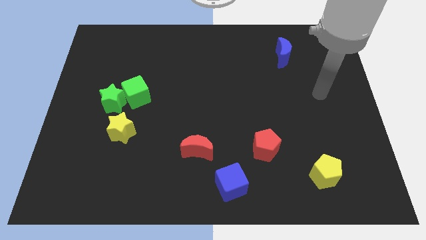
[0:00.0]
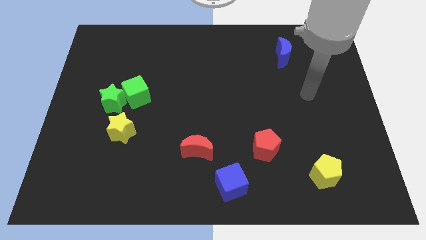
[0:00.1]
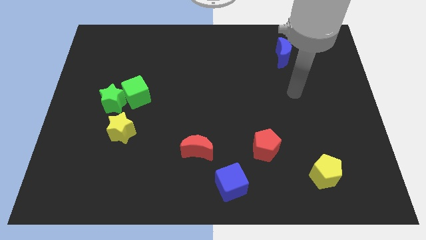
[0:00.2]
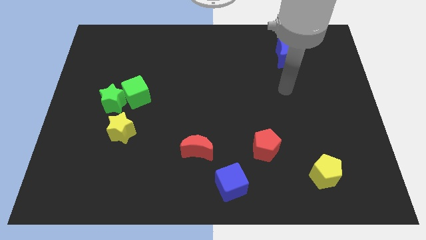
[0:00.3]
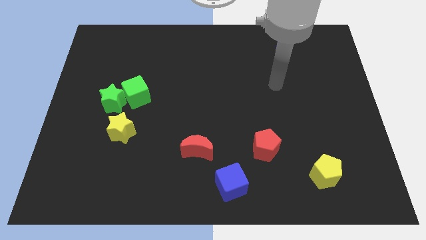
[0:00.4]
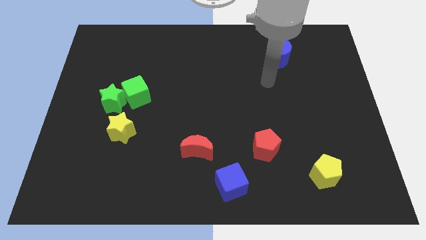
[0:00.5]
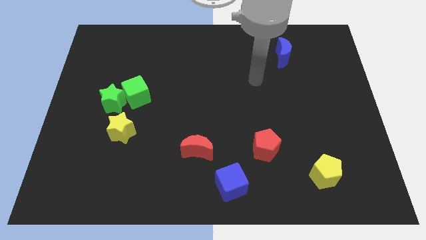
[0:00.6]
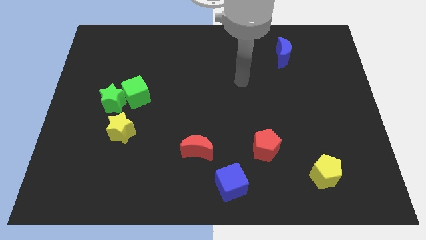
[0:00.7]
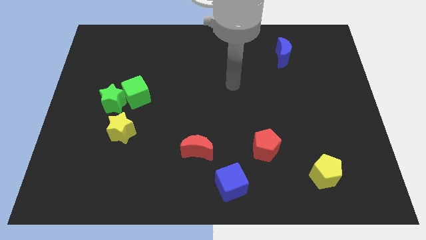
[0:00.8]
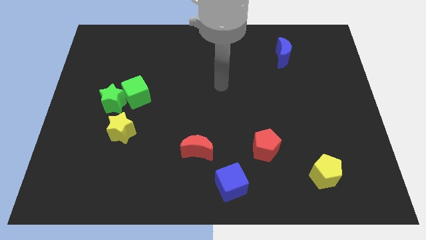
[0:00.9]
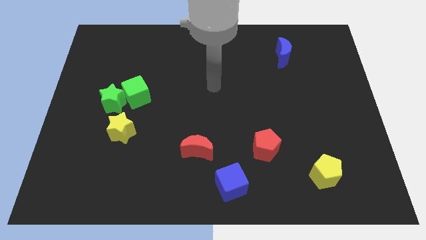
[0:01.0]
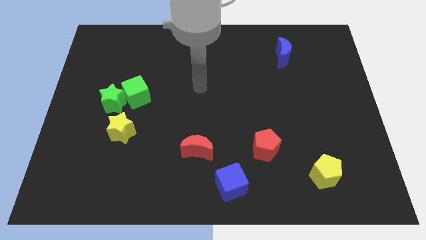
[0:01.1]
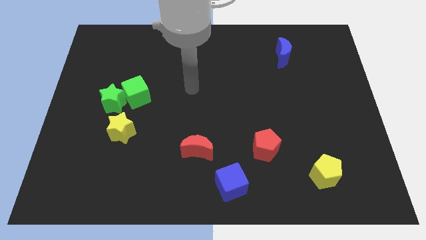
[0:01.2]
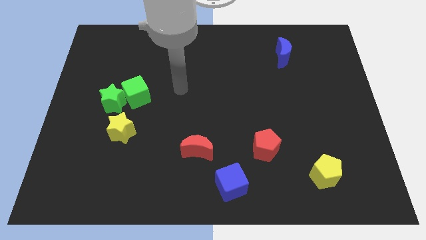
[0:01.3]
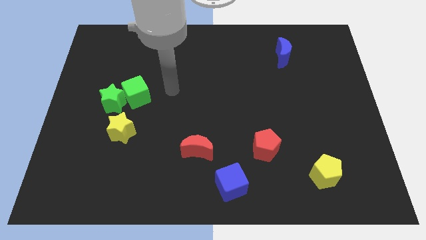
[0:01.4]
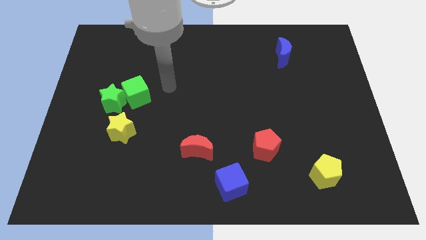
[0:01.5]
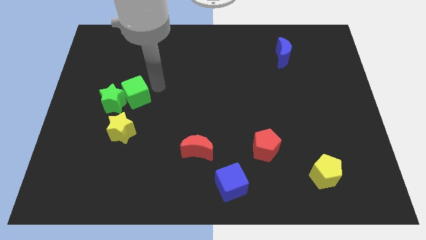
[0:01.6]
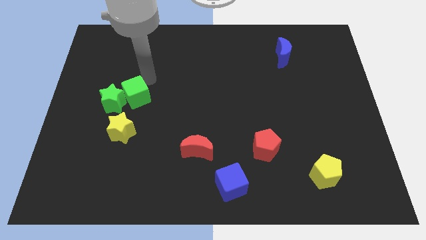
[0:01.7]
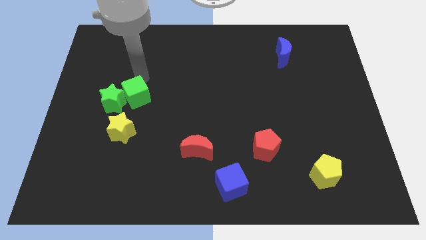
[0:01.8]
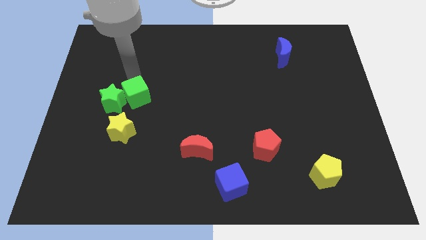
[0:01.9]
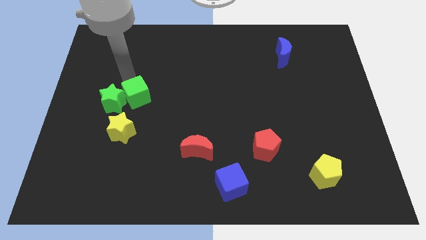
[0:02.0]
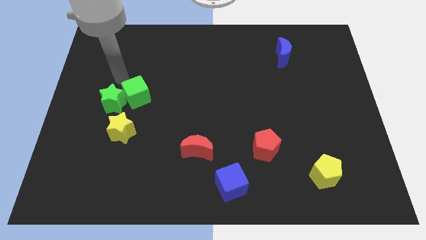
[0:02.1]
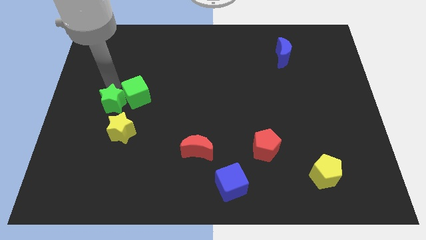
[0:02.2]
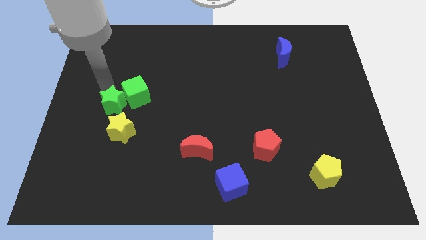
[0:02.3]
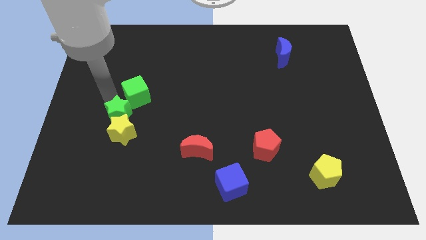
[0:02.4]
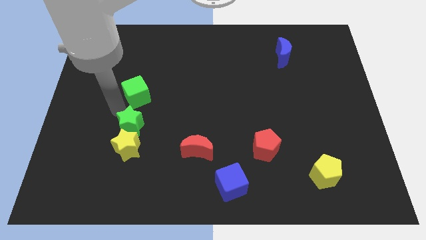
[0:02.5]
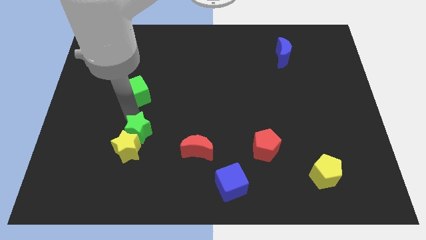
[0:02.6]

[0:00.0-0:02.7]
move the green cube away from the green star

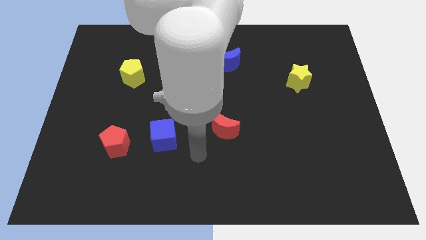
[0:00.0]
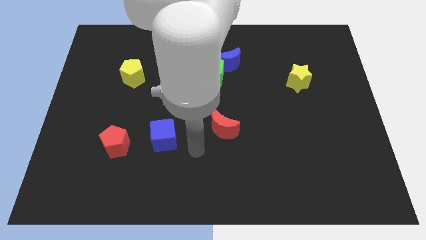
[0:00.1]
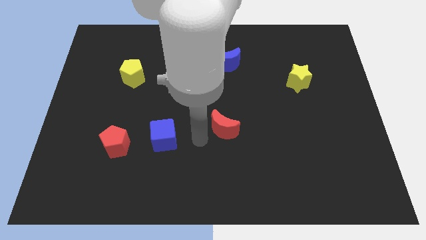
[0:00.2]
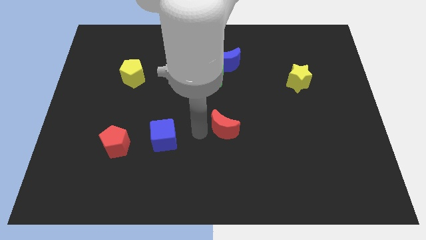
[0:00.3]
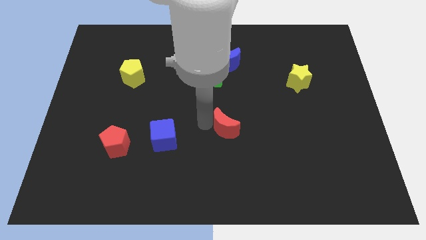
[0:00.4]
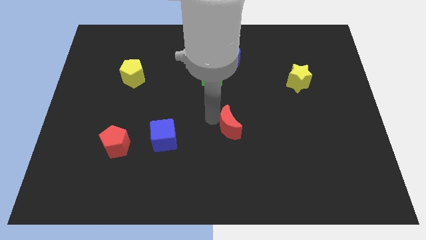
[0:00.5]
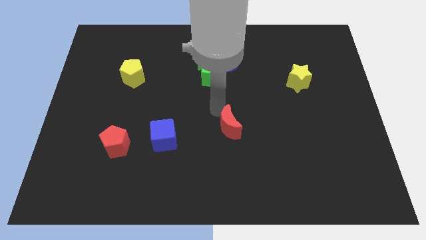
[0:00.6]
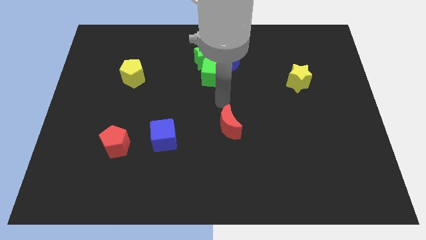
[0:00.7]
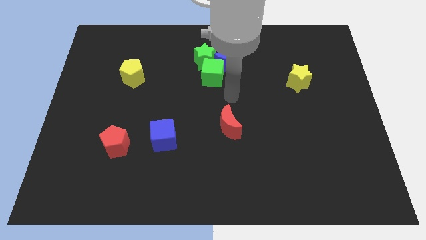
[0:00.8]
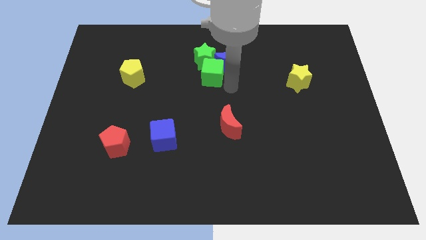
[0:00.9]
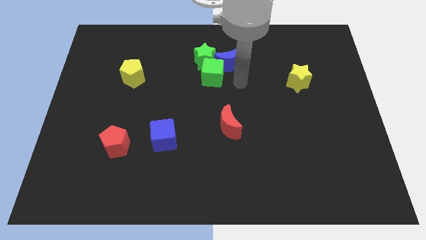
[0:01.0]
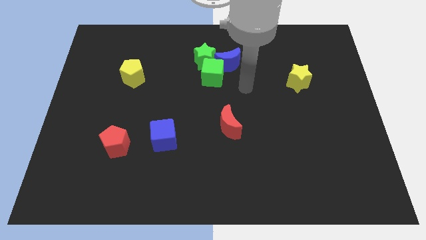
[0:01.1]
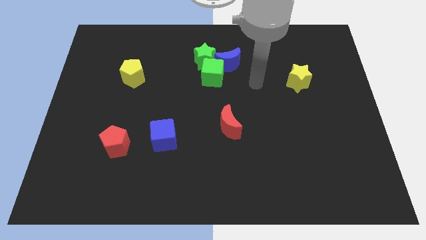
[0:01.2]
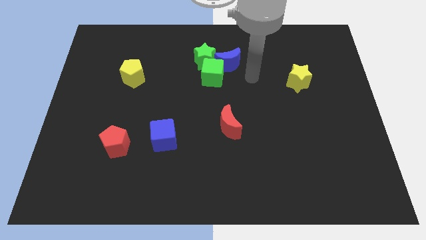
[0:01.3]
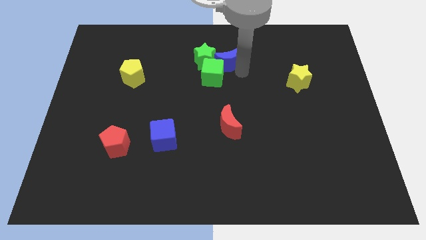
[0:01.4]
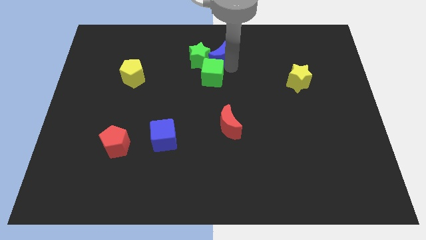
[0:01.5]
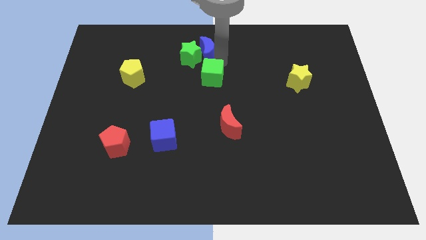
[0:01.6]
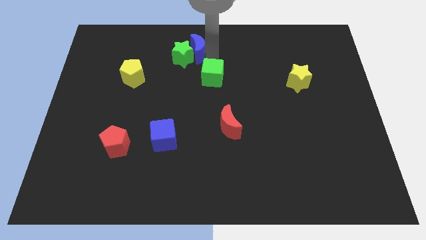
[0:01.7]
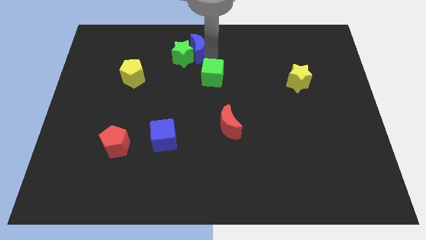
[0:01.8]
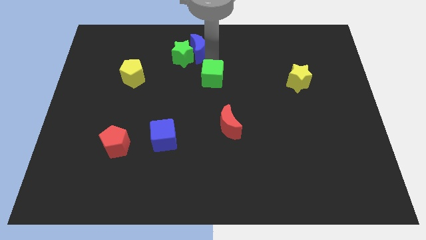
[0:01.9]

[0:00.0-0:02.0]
pull the green cube apart from the green star and blue moon

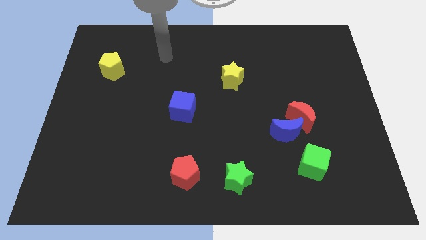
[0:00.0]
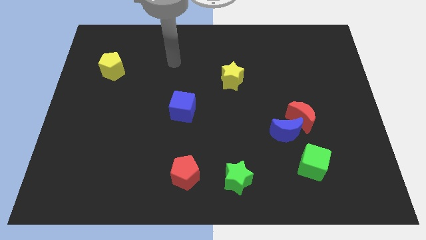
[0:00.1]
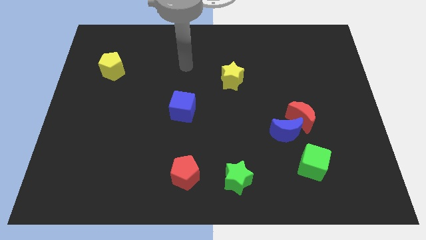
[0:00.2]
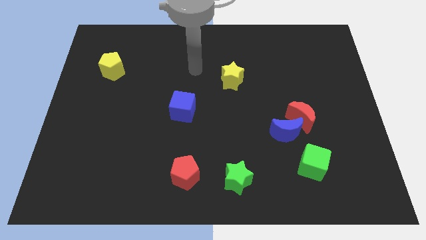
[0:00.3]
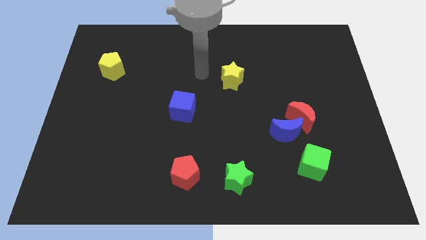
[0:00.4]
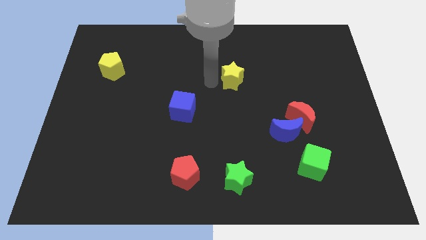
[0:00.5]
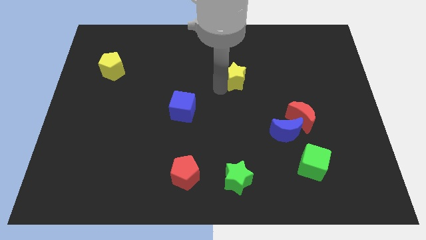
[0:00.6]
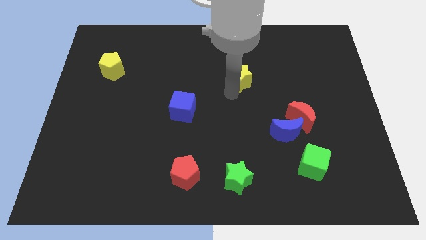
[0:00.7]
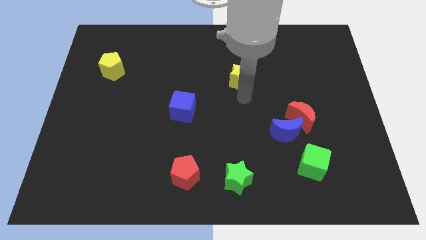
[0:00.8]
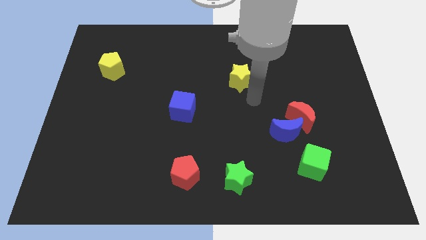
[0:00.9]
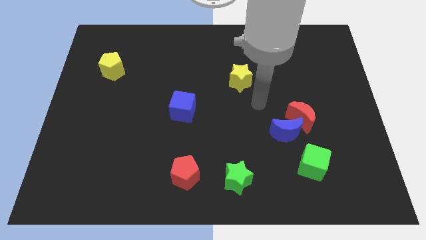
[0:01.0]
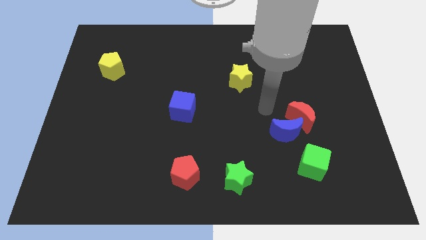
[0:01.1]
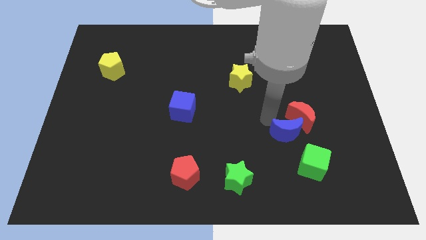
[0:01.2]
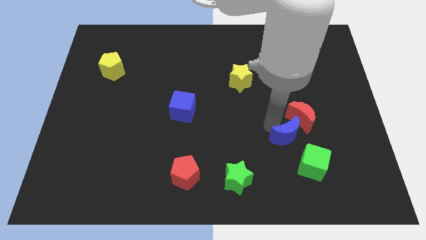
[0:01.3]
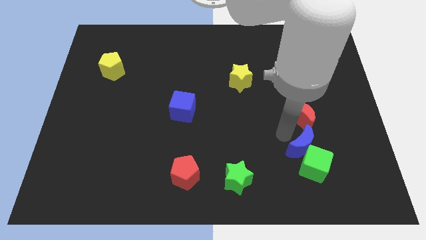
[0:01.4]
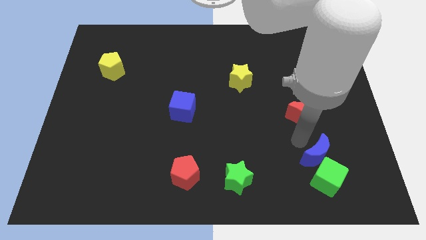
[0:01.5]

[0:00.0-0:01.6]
move the red moon away from the blue moon

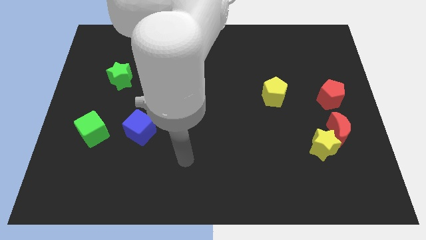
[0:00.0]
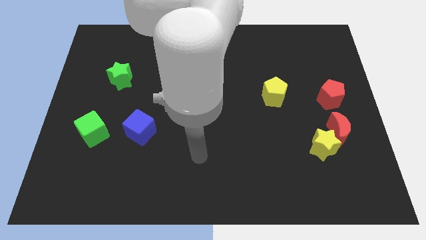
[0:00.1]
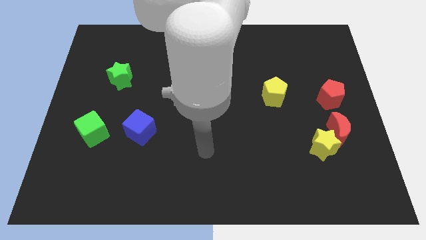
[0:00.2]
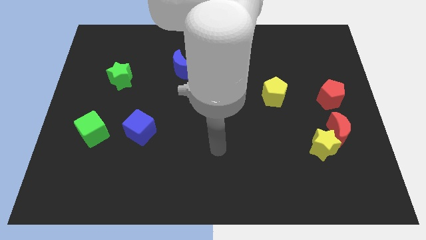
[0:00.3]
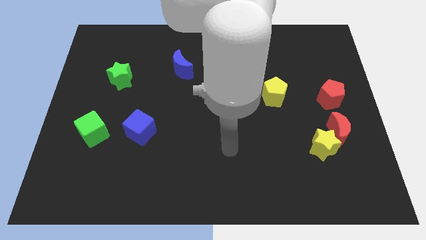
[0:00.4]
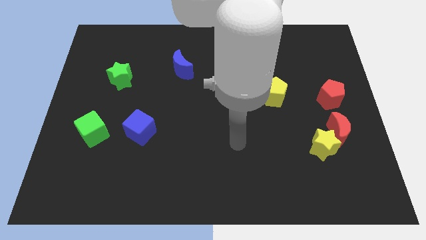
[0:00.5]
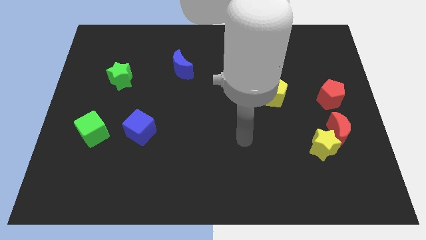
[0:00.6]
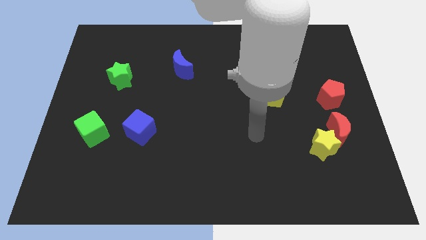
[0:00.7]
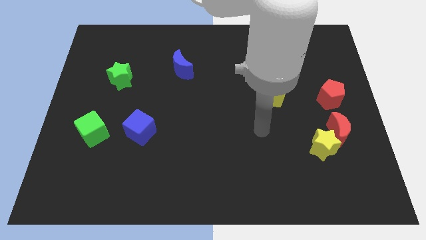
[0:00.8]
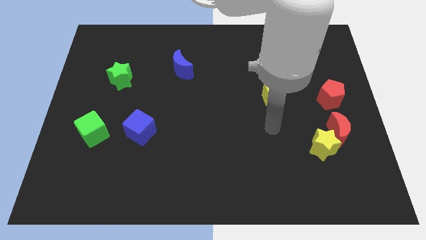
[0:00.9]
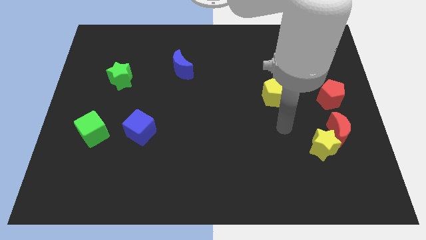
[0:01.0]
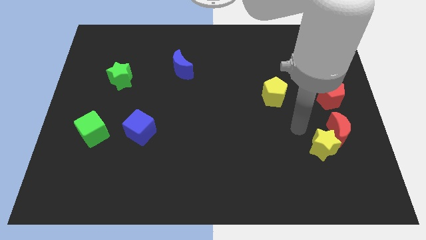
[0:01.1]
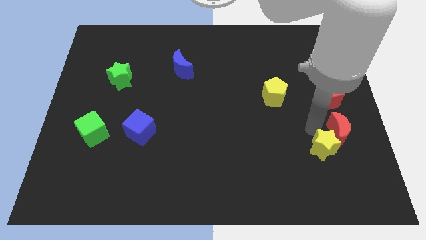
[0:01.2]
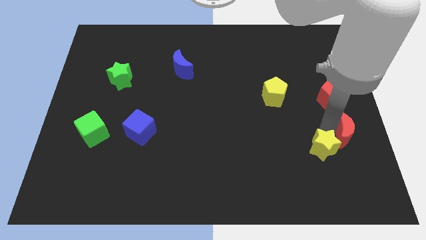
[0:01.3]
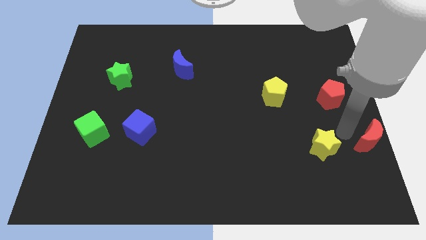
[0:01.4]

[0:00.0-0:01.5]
pull the yellow star apart from the red moon

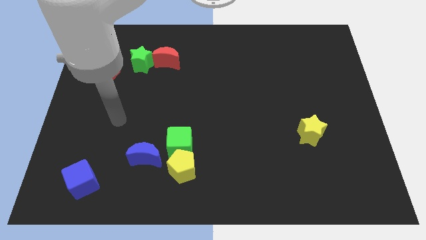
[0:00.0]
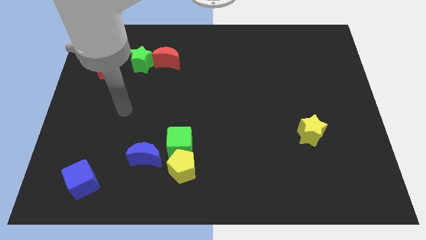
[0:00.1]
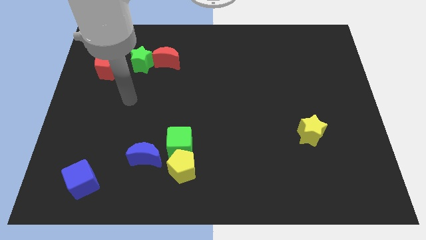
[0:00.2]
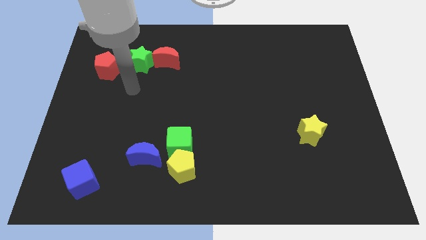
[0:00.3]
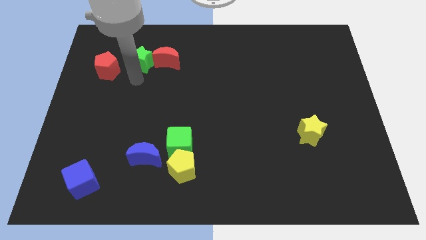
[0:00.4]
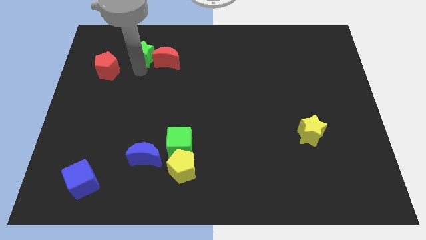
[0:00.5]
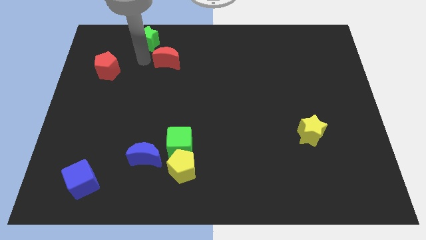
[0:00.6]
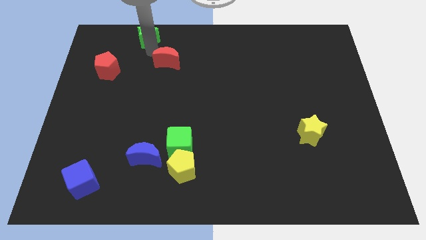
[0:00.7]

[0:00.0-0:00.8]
move the red moon away from the green star

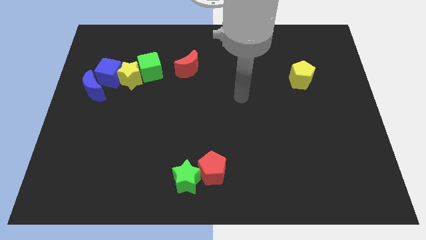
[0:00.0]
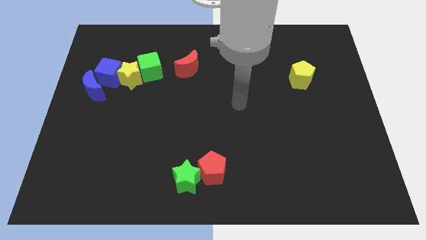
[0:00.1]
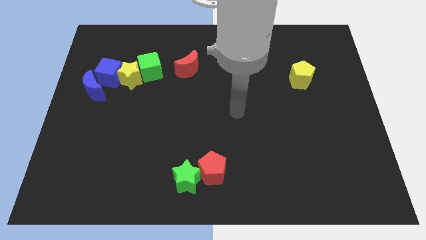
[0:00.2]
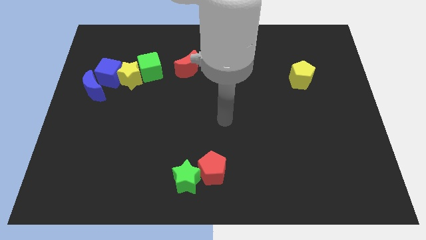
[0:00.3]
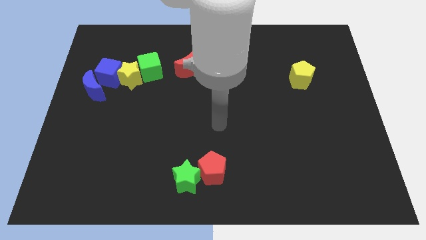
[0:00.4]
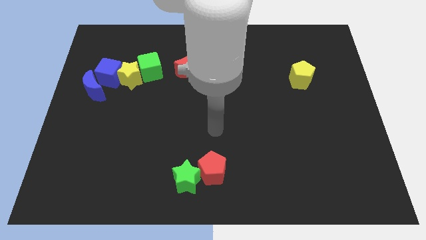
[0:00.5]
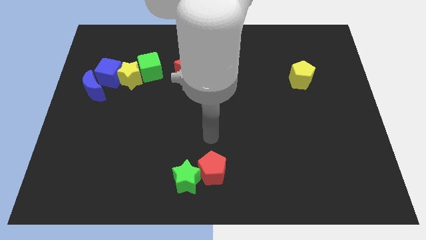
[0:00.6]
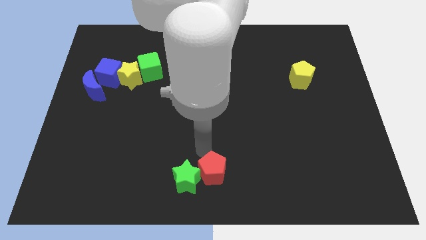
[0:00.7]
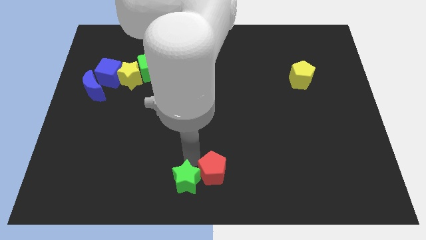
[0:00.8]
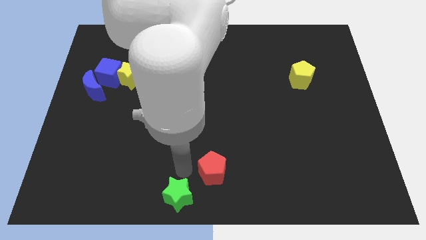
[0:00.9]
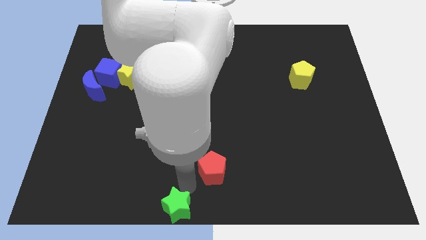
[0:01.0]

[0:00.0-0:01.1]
move the red pentagon away from the green star
